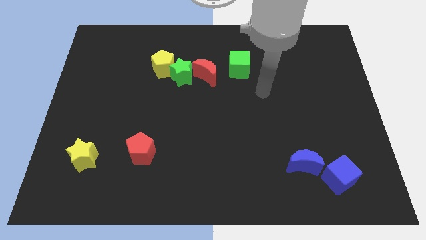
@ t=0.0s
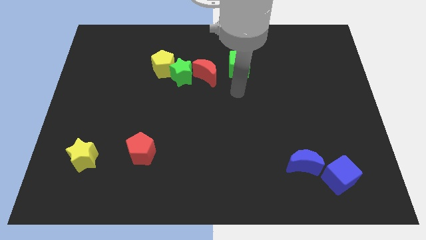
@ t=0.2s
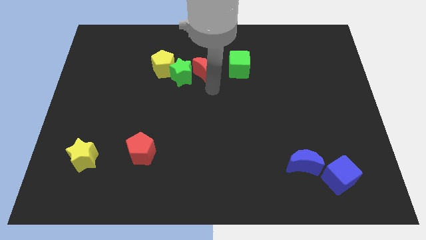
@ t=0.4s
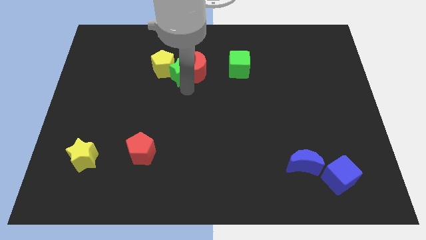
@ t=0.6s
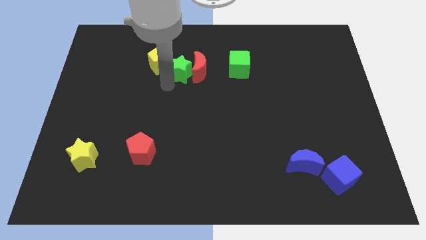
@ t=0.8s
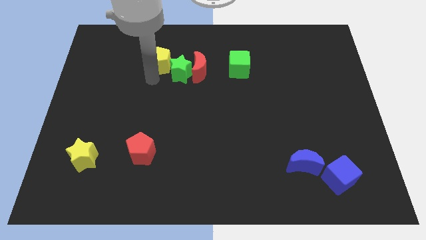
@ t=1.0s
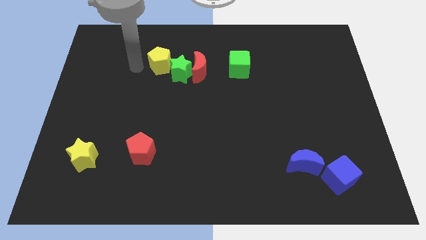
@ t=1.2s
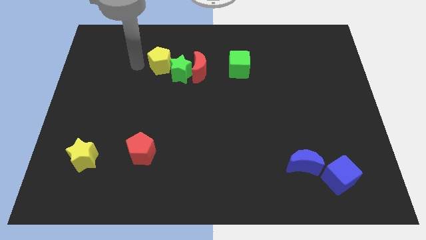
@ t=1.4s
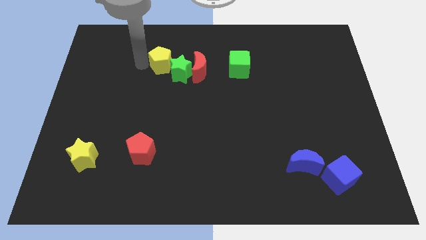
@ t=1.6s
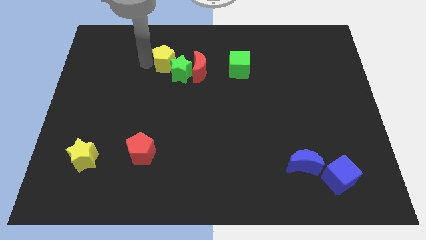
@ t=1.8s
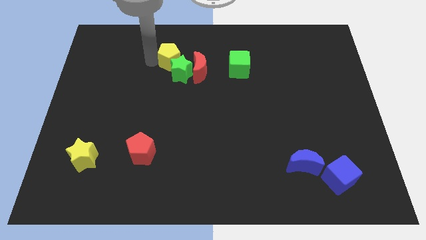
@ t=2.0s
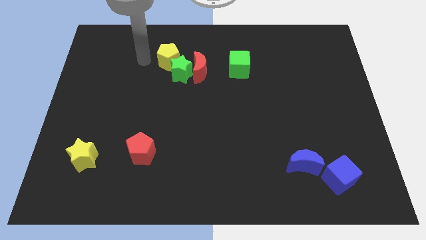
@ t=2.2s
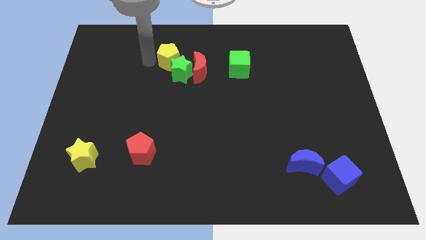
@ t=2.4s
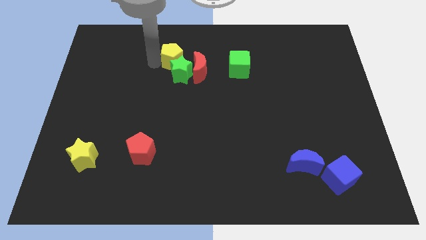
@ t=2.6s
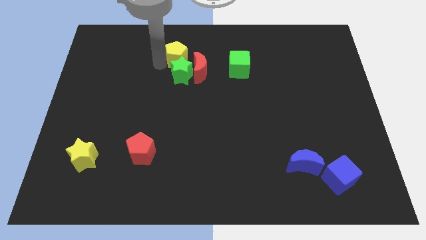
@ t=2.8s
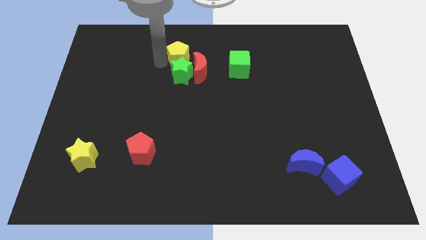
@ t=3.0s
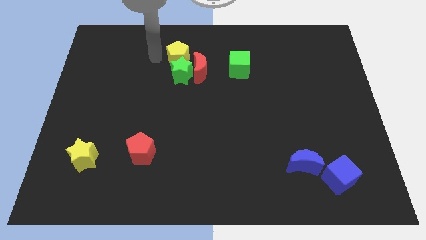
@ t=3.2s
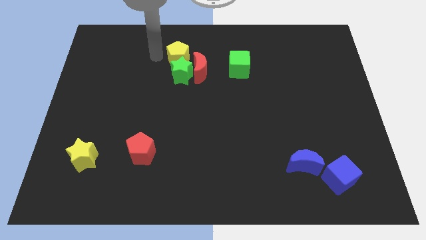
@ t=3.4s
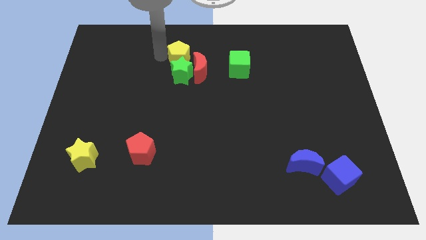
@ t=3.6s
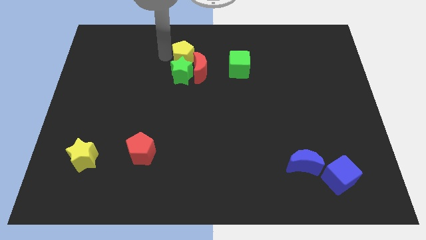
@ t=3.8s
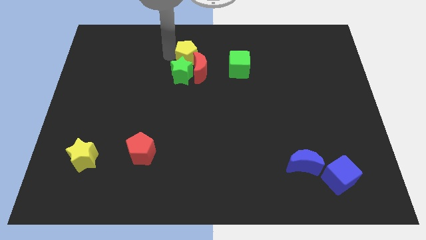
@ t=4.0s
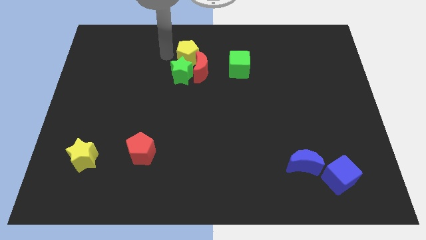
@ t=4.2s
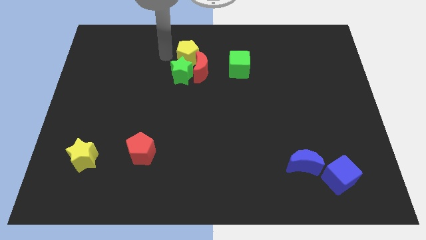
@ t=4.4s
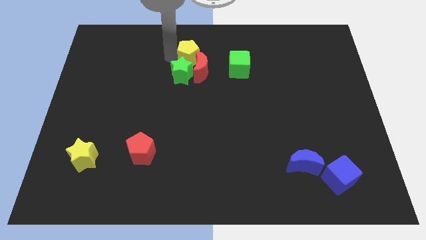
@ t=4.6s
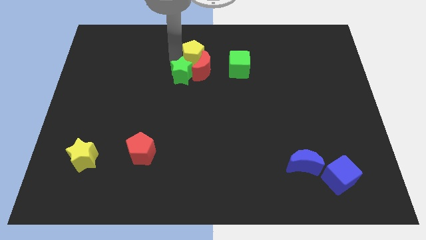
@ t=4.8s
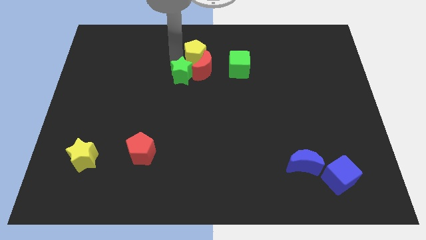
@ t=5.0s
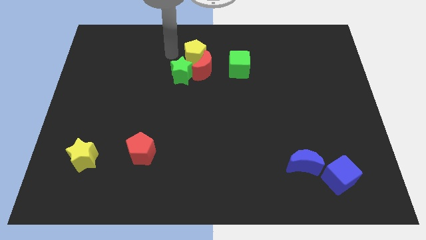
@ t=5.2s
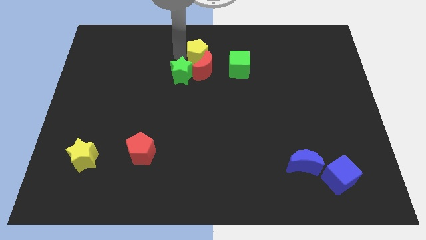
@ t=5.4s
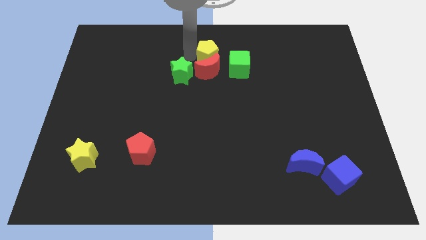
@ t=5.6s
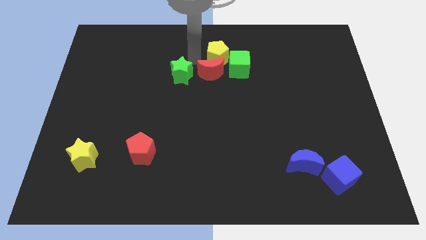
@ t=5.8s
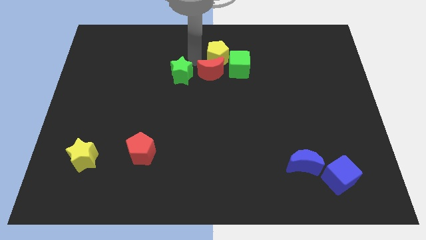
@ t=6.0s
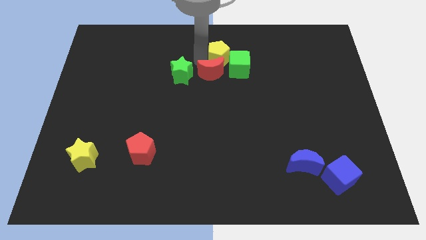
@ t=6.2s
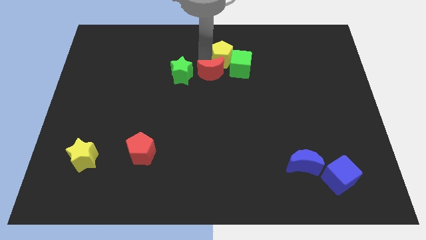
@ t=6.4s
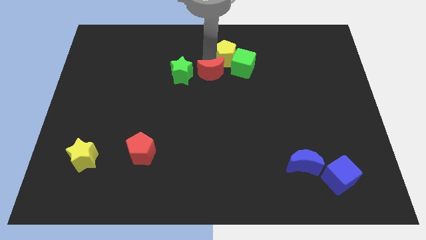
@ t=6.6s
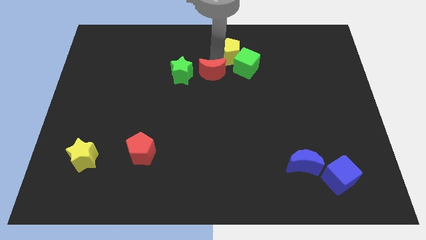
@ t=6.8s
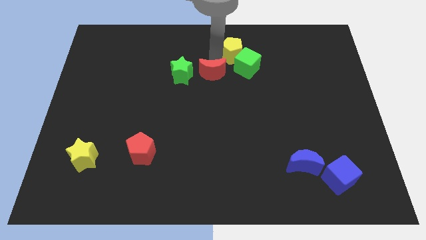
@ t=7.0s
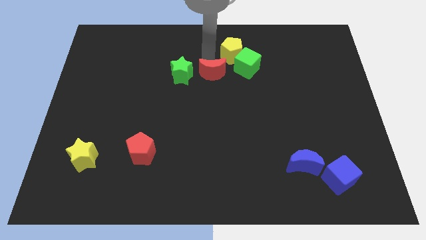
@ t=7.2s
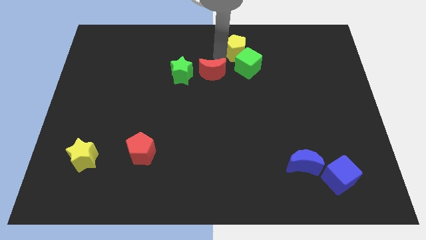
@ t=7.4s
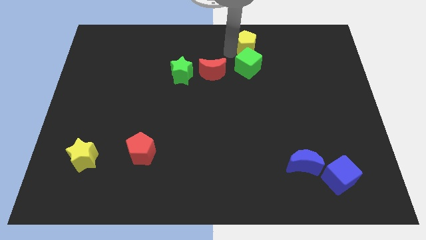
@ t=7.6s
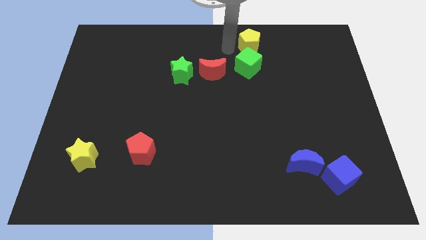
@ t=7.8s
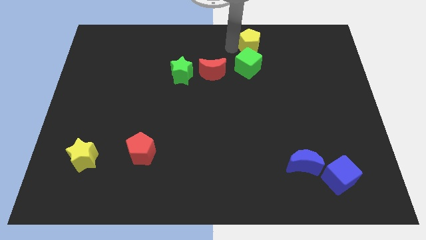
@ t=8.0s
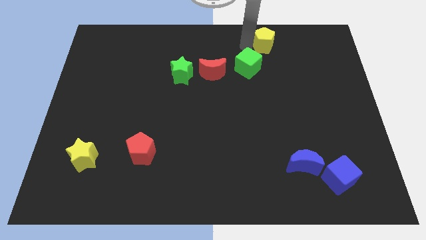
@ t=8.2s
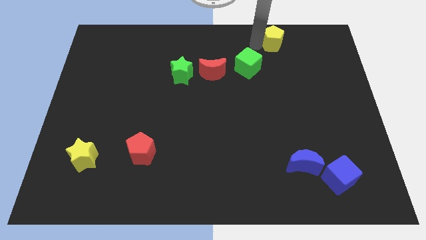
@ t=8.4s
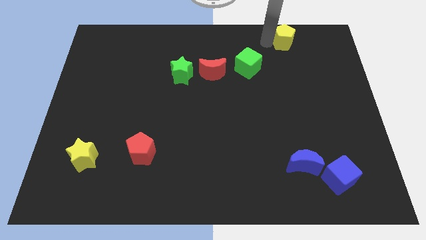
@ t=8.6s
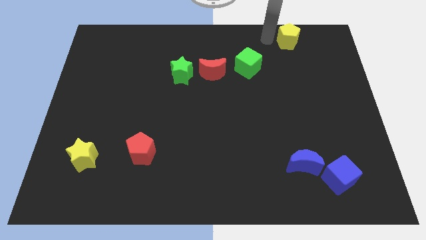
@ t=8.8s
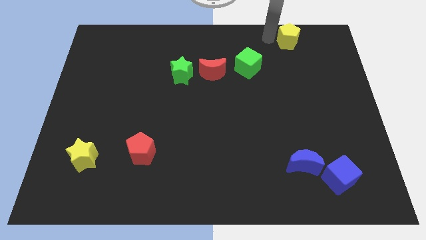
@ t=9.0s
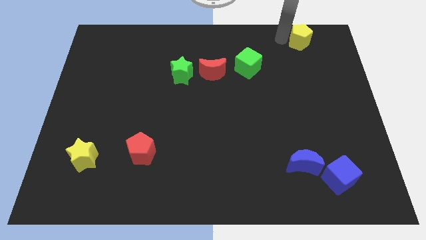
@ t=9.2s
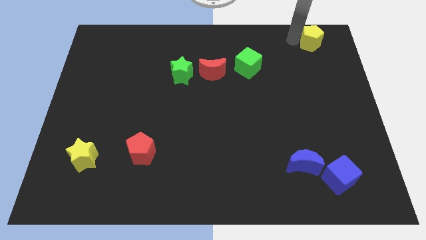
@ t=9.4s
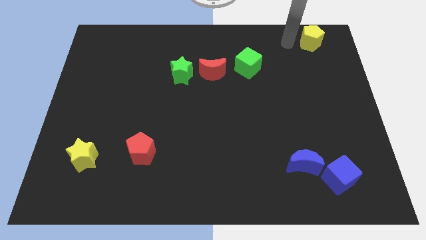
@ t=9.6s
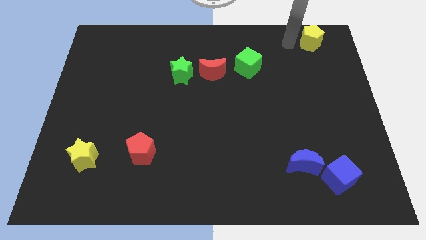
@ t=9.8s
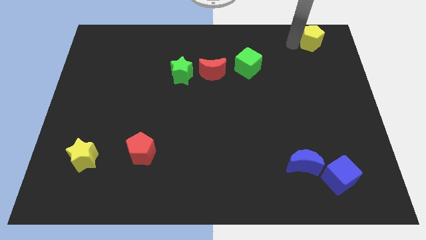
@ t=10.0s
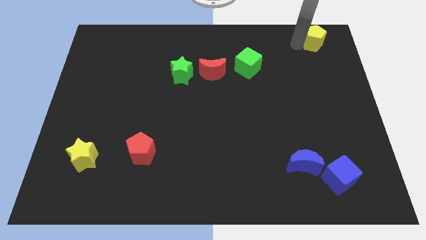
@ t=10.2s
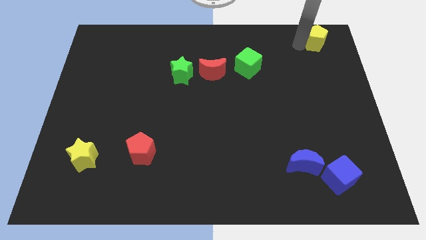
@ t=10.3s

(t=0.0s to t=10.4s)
put the yellow pentagon to the top right of the board
